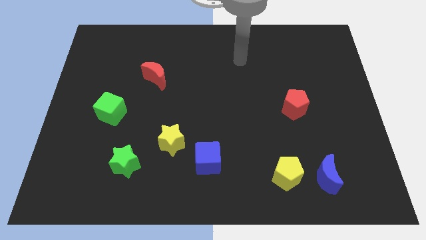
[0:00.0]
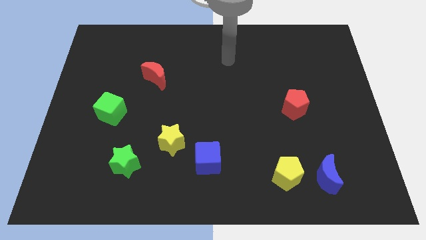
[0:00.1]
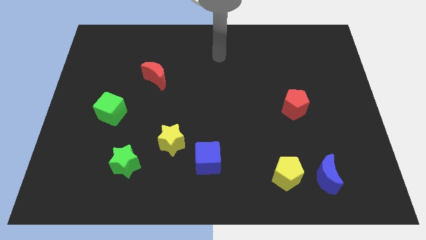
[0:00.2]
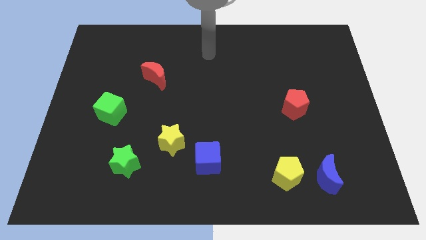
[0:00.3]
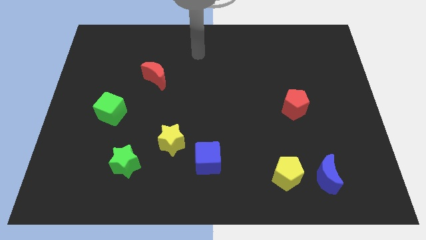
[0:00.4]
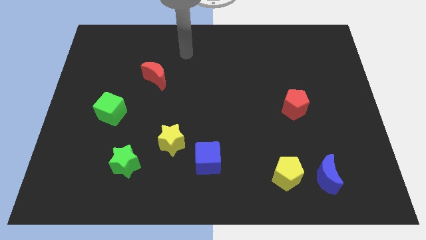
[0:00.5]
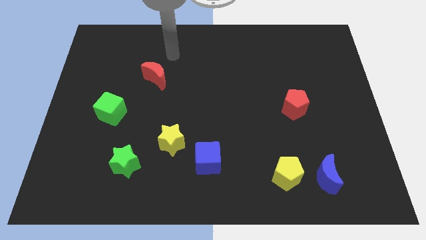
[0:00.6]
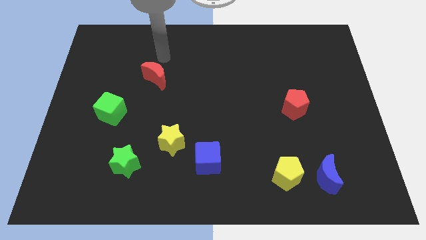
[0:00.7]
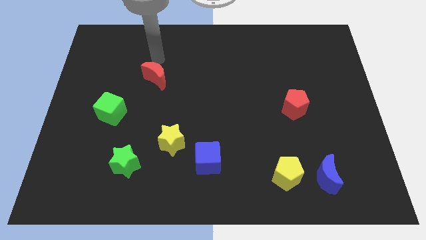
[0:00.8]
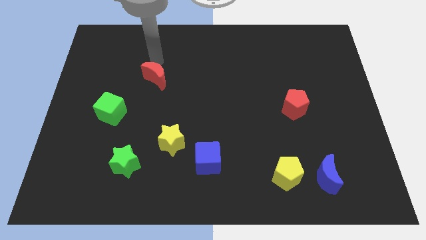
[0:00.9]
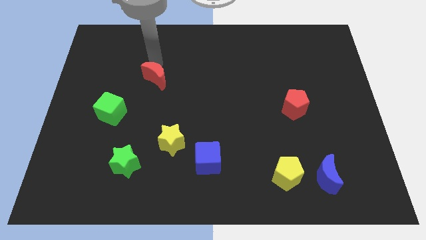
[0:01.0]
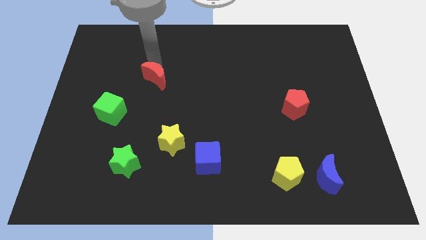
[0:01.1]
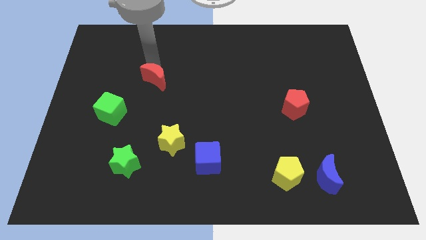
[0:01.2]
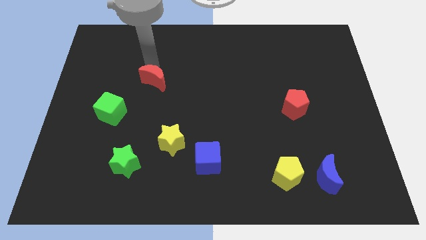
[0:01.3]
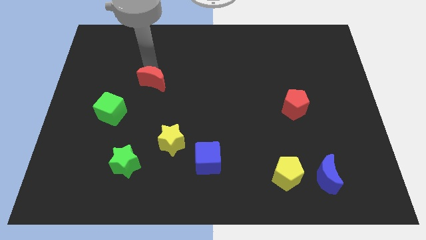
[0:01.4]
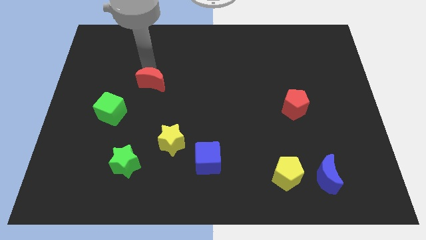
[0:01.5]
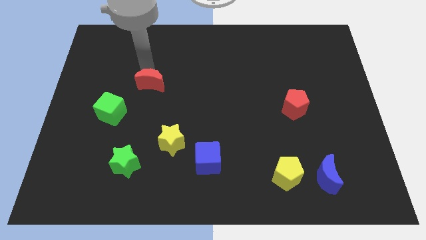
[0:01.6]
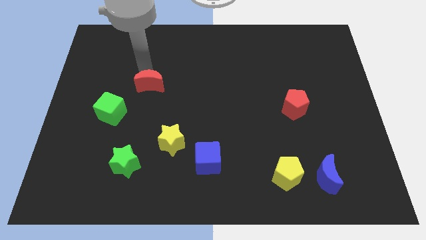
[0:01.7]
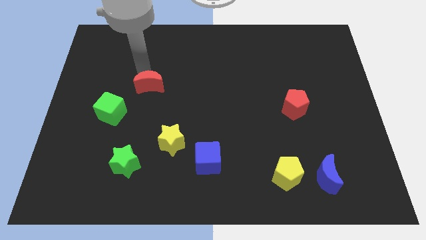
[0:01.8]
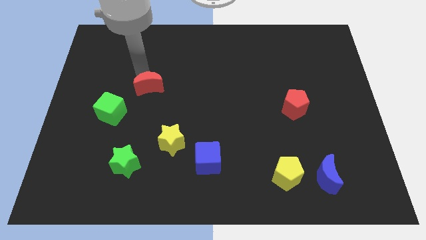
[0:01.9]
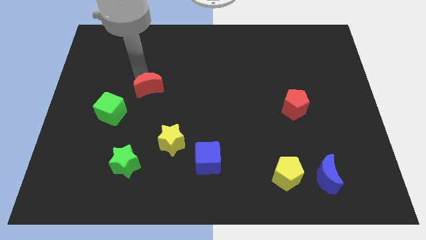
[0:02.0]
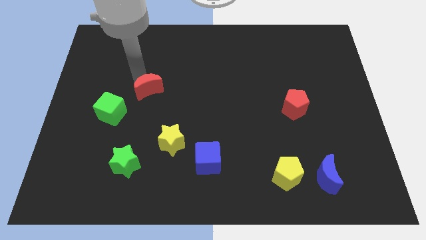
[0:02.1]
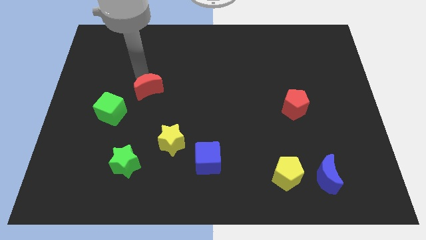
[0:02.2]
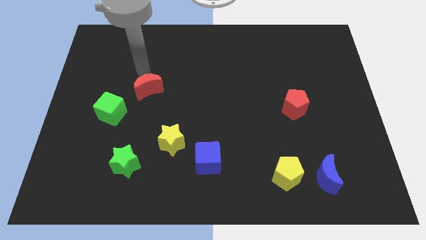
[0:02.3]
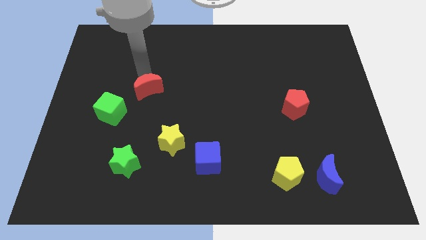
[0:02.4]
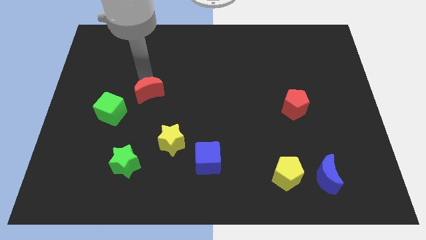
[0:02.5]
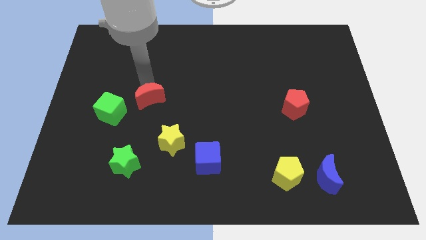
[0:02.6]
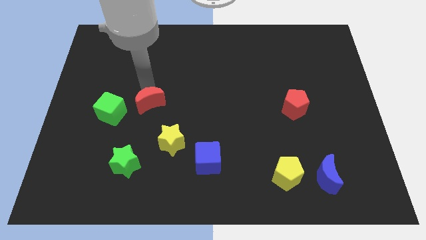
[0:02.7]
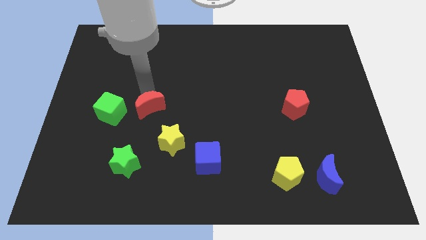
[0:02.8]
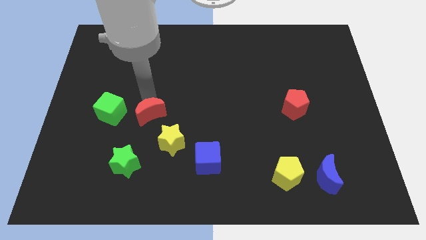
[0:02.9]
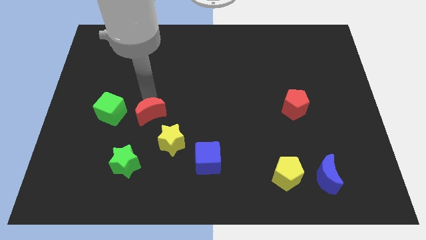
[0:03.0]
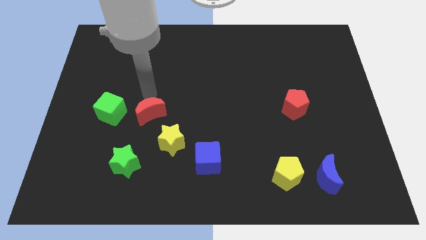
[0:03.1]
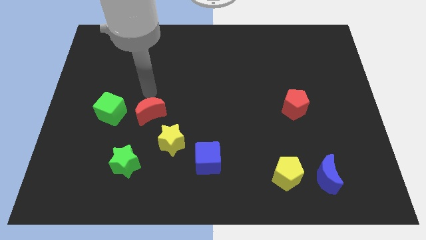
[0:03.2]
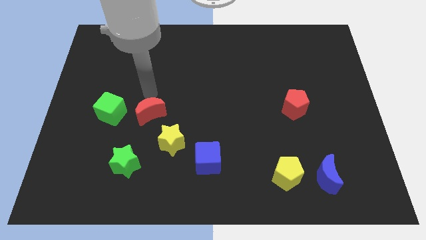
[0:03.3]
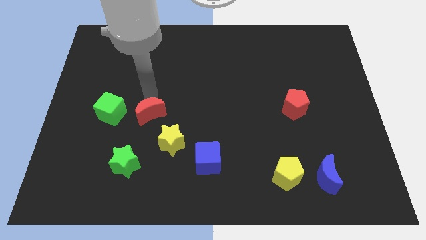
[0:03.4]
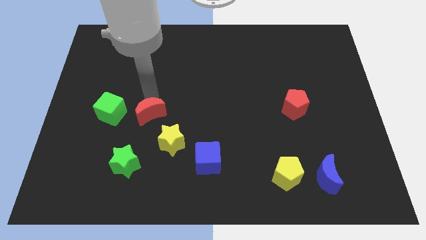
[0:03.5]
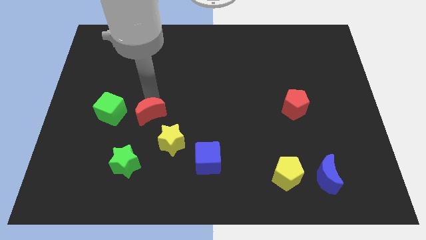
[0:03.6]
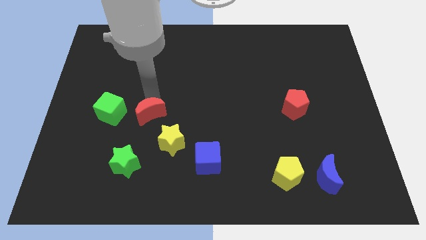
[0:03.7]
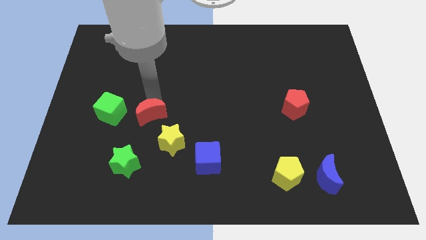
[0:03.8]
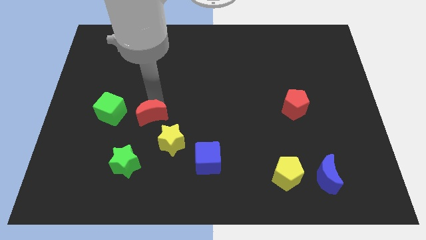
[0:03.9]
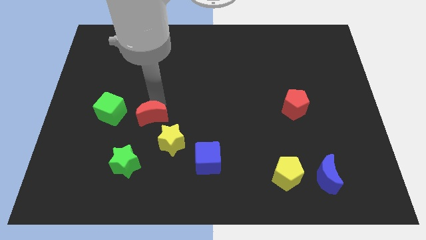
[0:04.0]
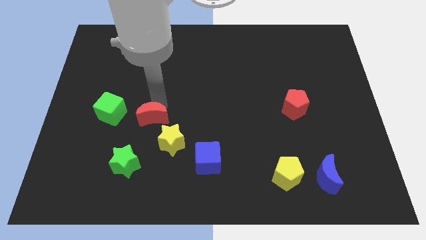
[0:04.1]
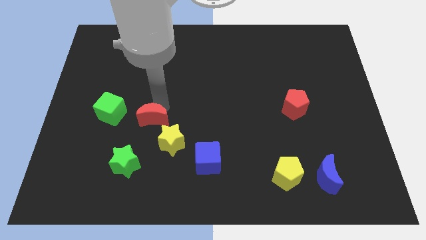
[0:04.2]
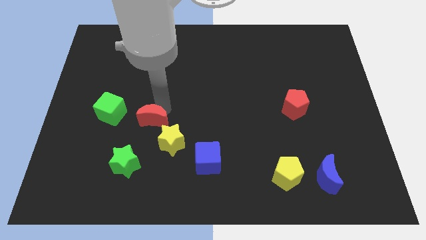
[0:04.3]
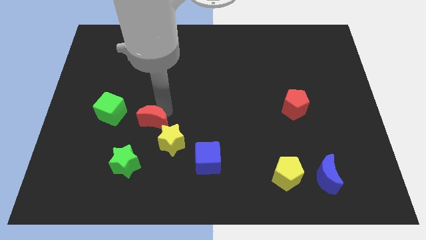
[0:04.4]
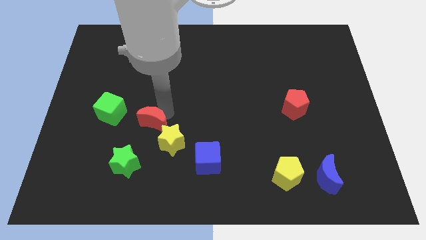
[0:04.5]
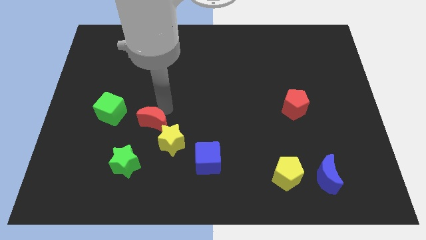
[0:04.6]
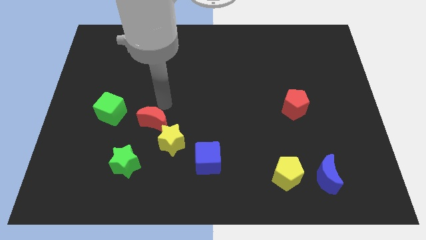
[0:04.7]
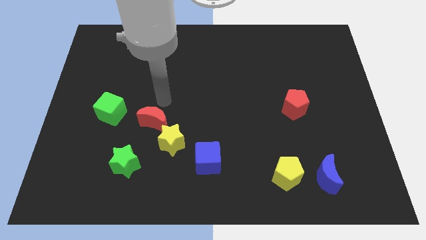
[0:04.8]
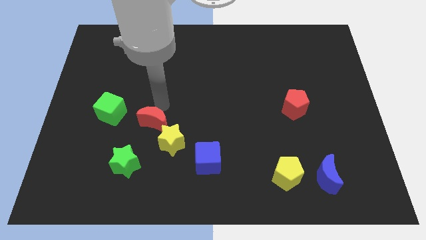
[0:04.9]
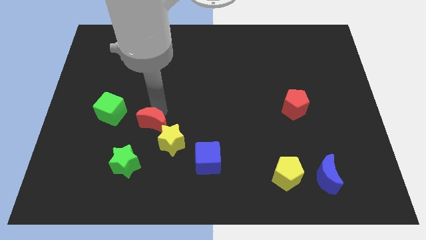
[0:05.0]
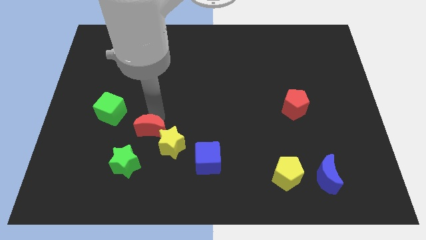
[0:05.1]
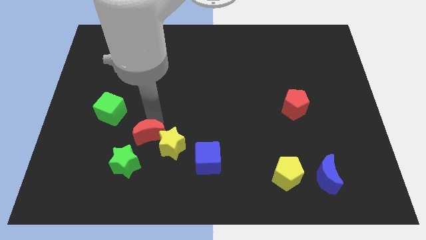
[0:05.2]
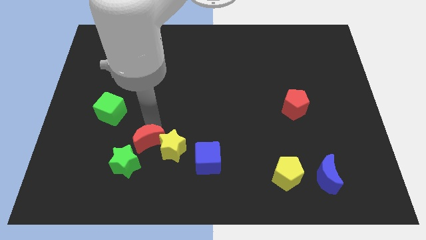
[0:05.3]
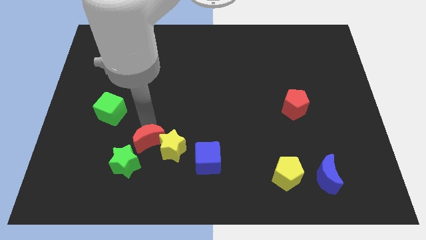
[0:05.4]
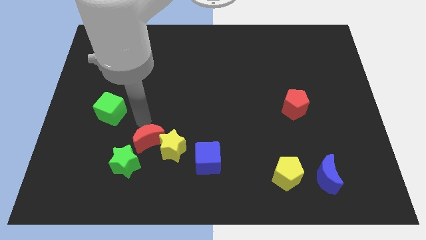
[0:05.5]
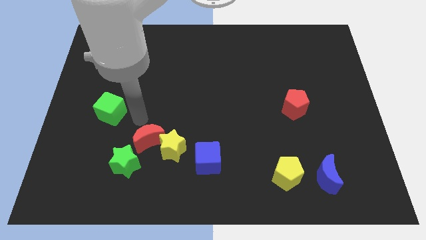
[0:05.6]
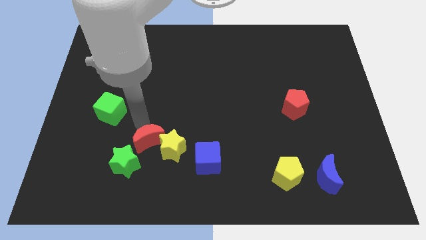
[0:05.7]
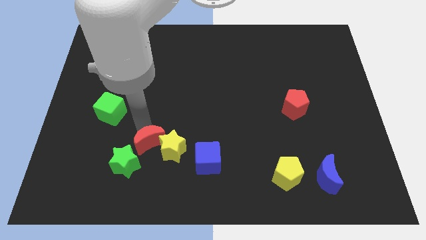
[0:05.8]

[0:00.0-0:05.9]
push the red moon left of the blue cube

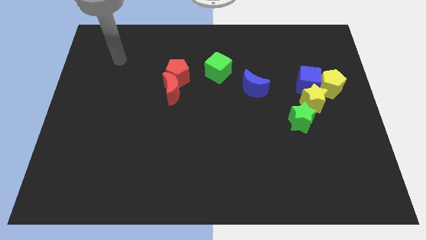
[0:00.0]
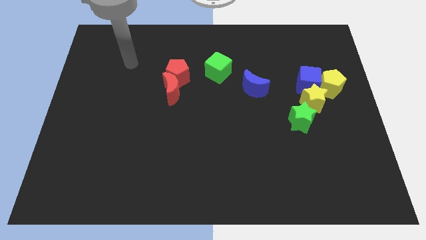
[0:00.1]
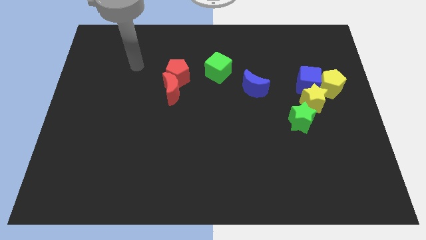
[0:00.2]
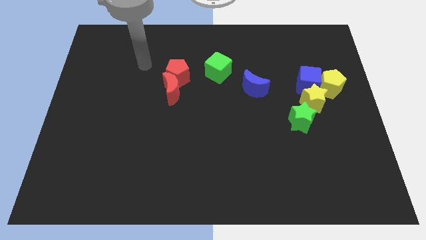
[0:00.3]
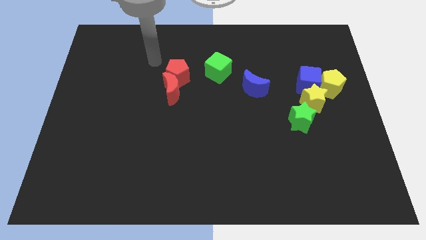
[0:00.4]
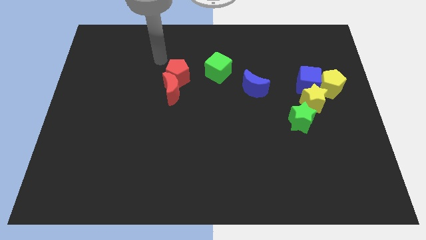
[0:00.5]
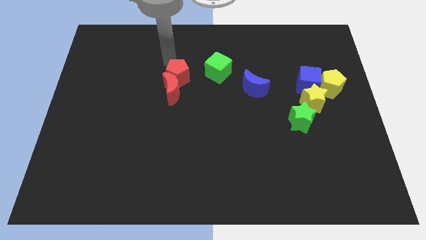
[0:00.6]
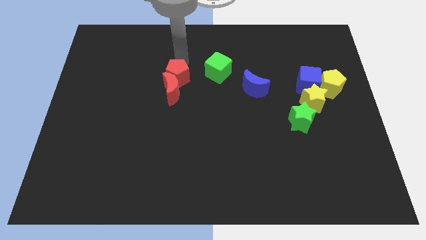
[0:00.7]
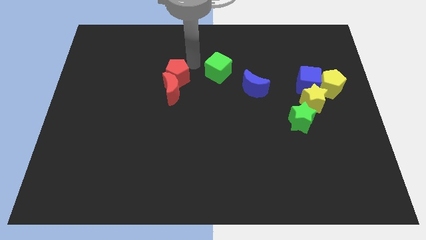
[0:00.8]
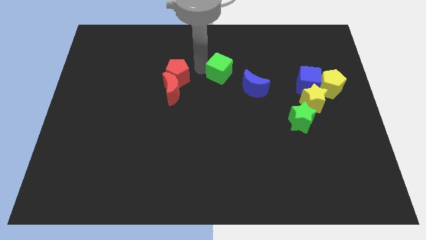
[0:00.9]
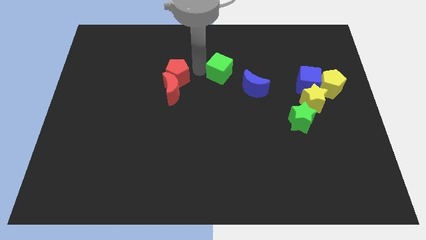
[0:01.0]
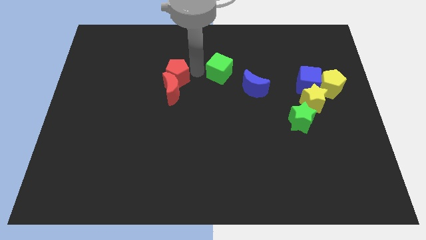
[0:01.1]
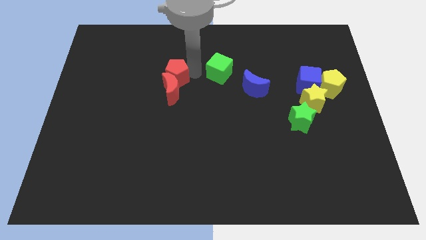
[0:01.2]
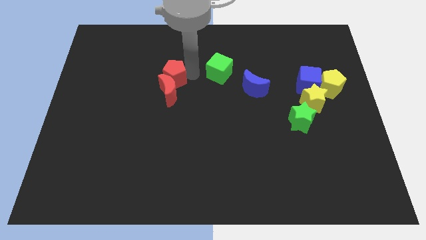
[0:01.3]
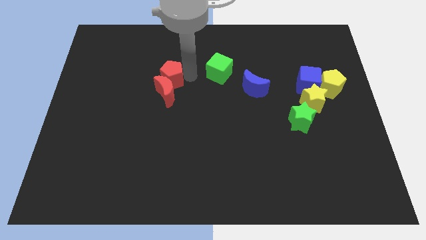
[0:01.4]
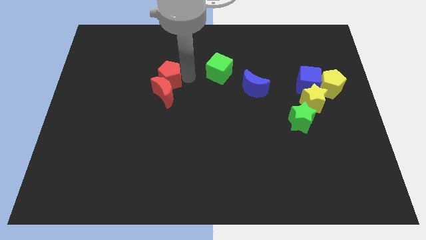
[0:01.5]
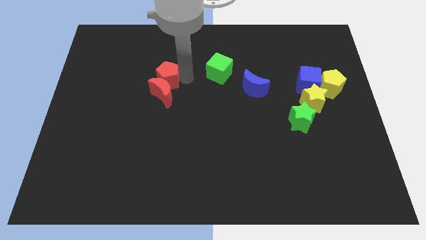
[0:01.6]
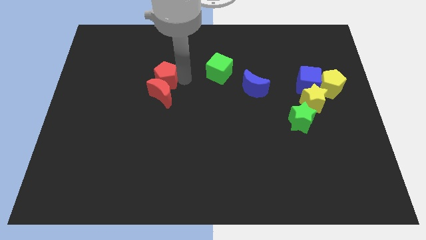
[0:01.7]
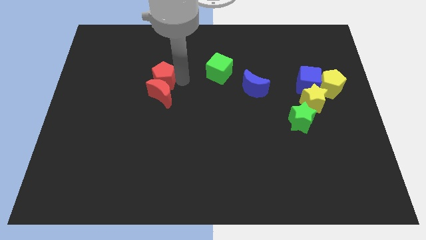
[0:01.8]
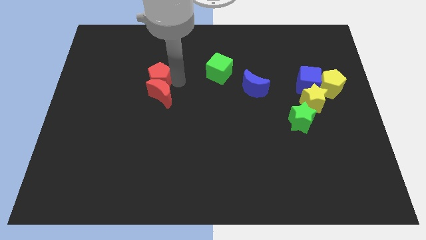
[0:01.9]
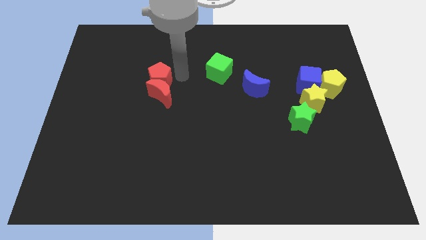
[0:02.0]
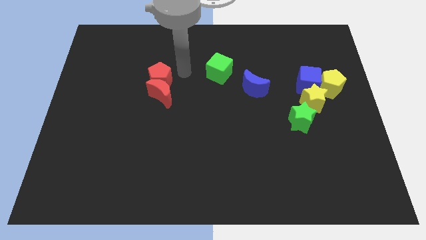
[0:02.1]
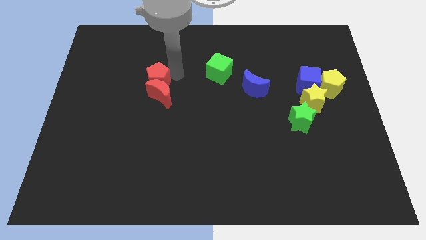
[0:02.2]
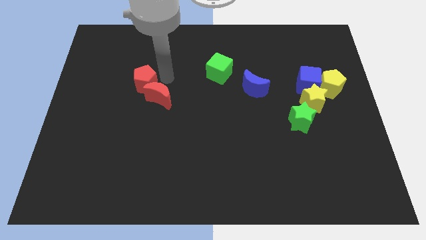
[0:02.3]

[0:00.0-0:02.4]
slide the red pentagon left of the red moon
